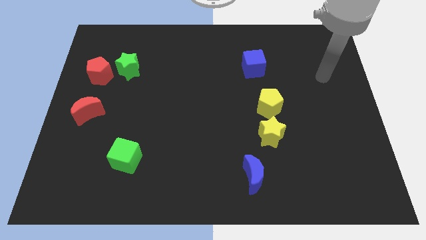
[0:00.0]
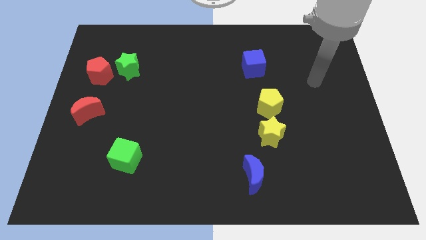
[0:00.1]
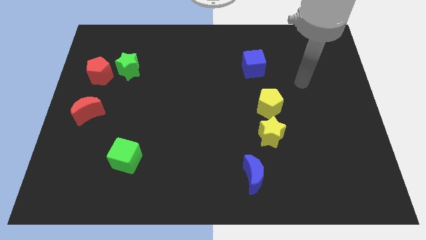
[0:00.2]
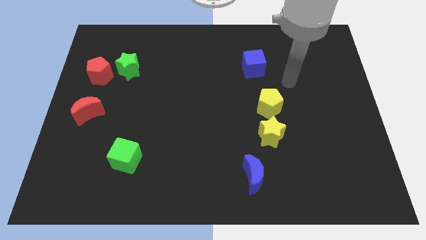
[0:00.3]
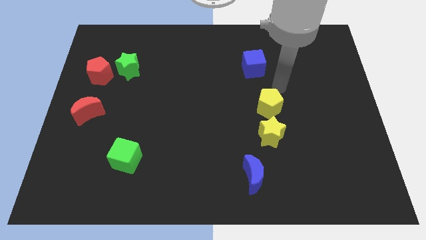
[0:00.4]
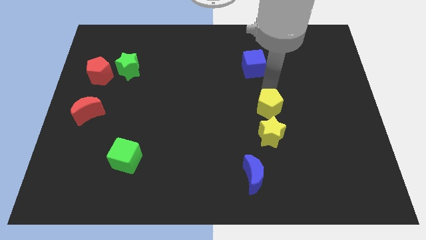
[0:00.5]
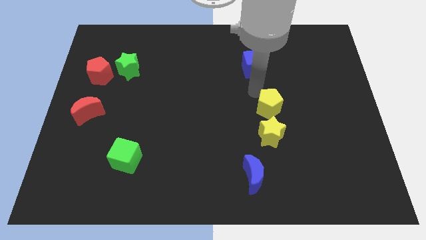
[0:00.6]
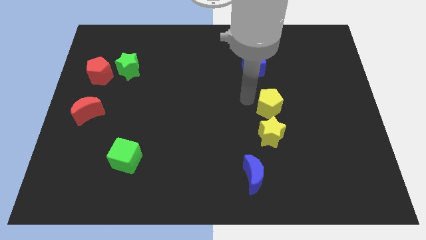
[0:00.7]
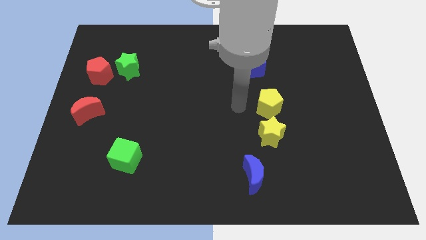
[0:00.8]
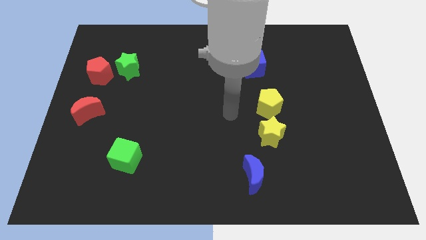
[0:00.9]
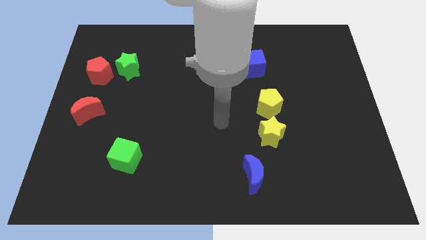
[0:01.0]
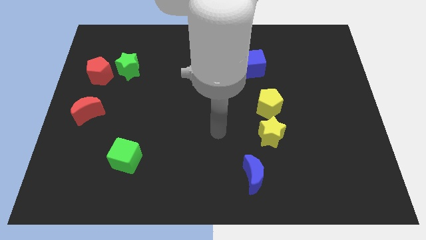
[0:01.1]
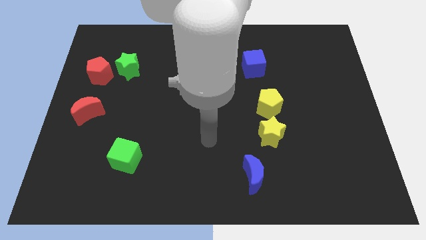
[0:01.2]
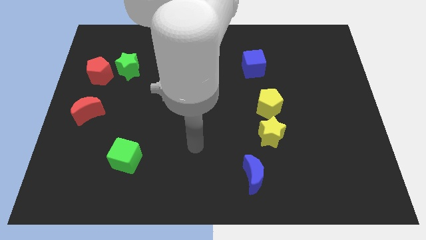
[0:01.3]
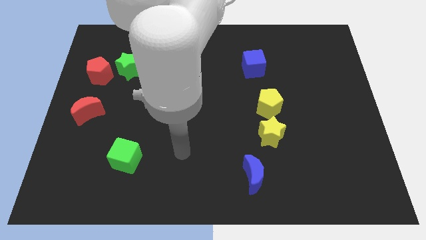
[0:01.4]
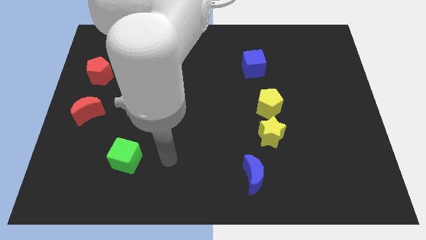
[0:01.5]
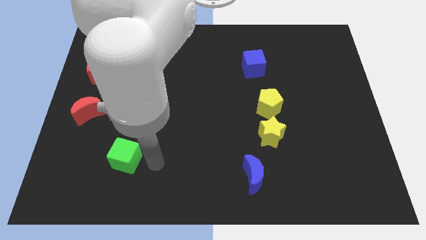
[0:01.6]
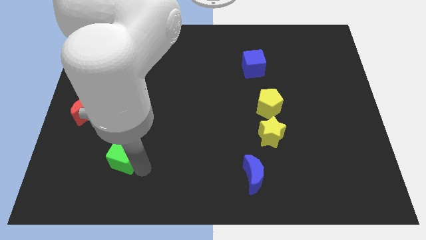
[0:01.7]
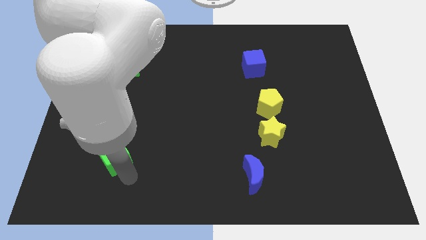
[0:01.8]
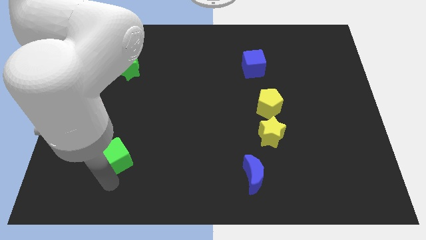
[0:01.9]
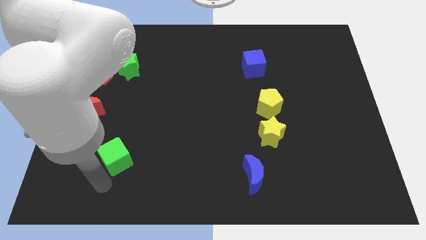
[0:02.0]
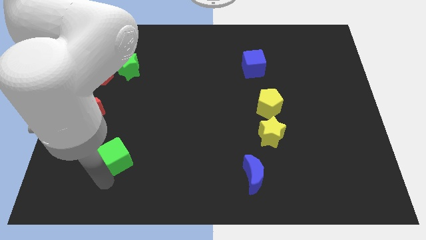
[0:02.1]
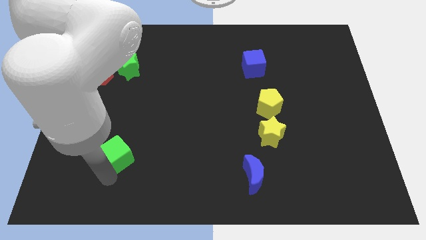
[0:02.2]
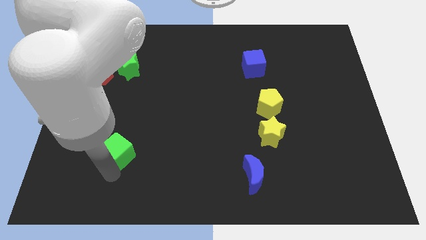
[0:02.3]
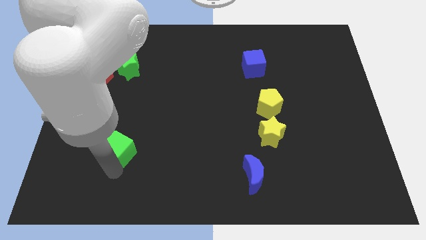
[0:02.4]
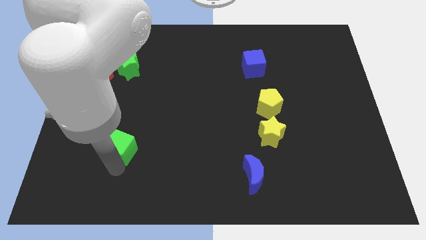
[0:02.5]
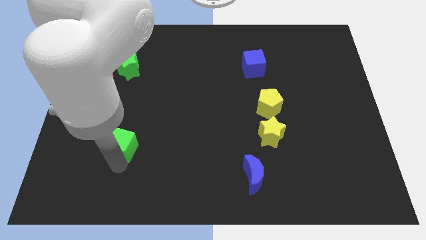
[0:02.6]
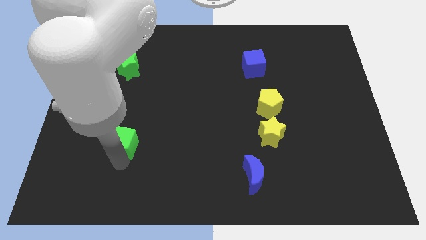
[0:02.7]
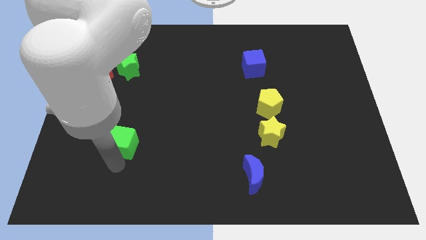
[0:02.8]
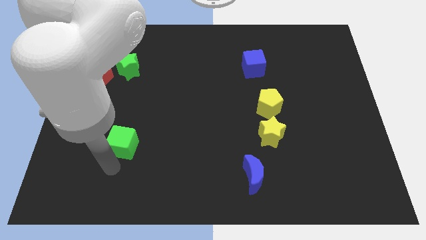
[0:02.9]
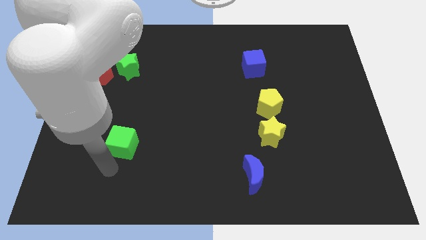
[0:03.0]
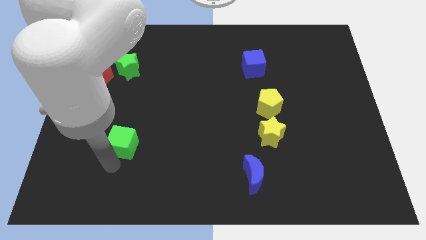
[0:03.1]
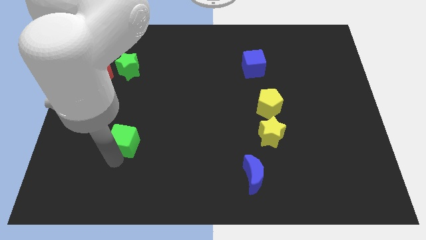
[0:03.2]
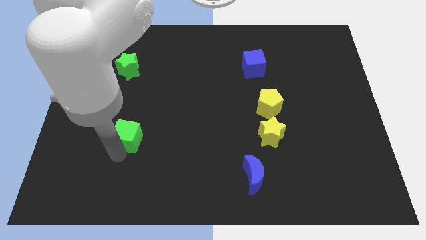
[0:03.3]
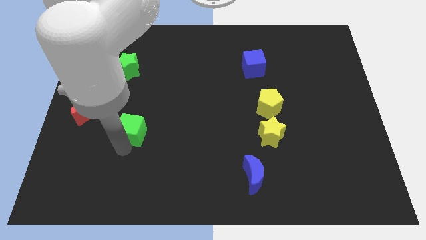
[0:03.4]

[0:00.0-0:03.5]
push the green cube upwards slightly

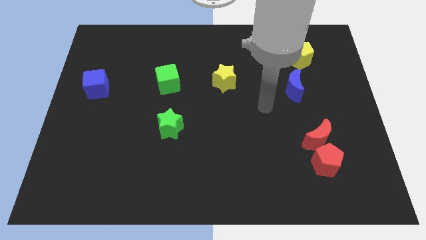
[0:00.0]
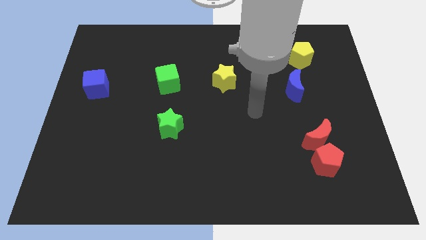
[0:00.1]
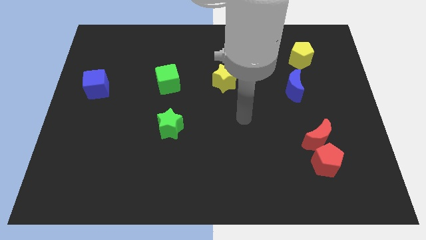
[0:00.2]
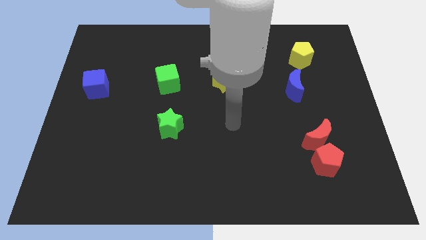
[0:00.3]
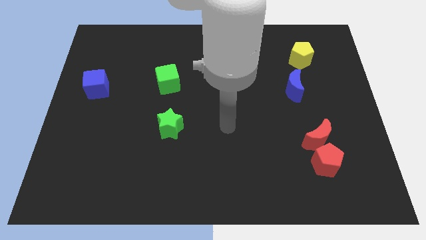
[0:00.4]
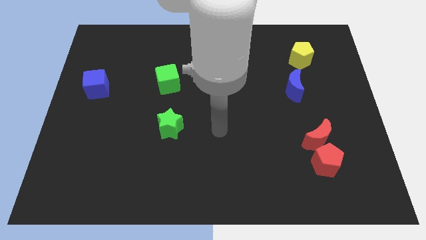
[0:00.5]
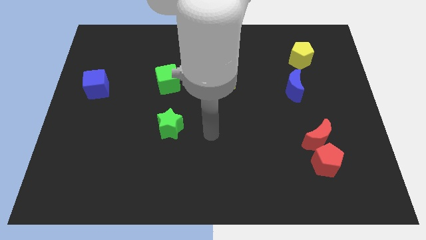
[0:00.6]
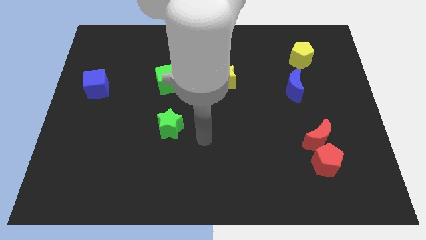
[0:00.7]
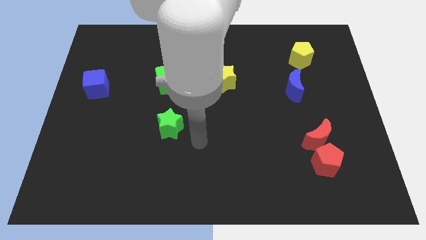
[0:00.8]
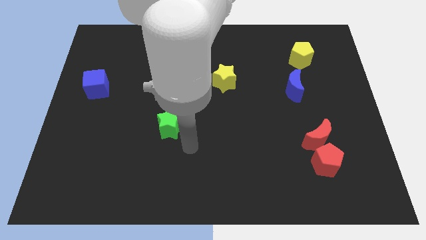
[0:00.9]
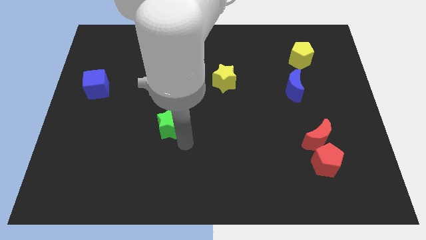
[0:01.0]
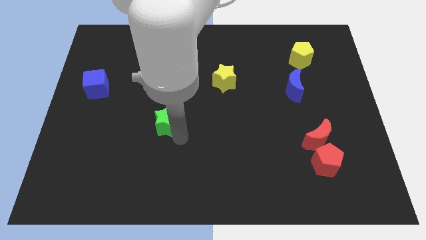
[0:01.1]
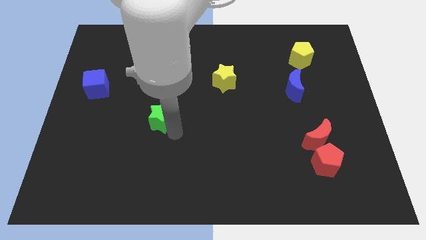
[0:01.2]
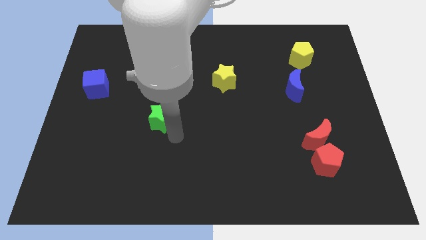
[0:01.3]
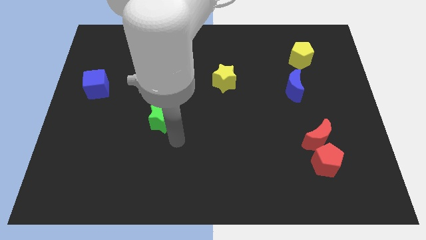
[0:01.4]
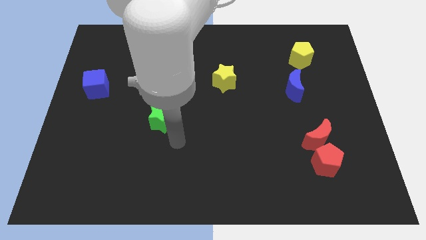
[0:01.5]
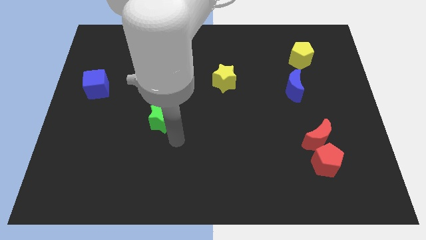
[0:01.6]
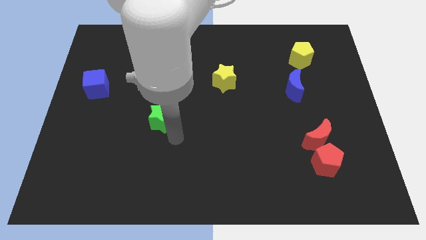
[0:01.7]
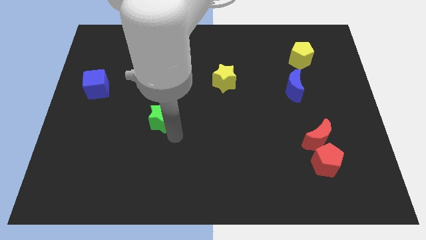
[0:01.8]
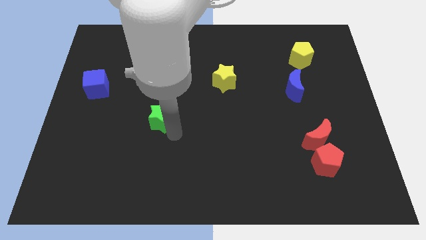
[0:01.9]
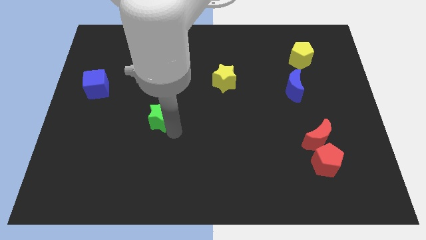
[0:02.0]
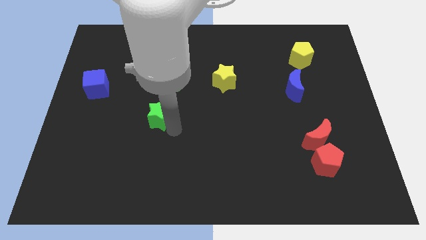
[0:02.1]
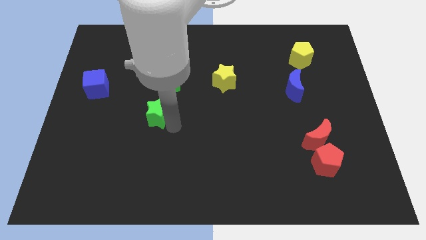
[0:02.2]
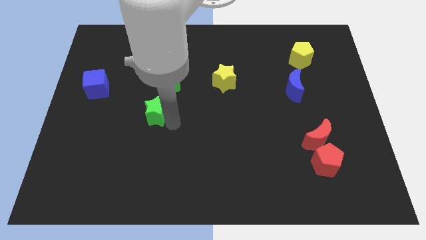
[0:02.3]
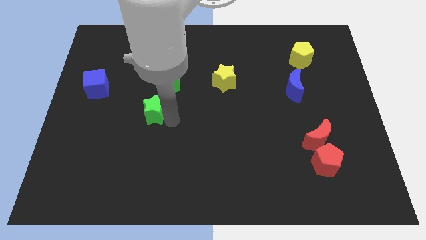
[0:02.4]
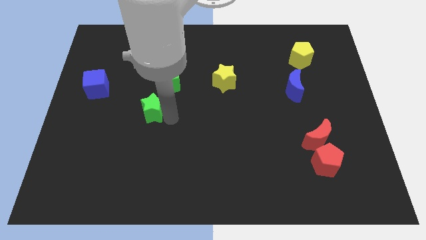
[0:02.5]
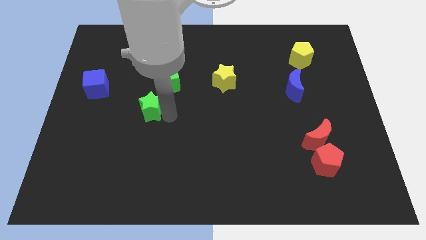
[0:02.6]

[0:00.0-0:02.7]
slightly slide the green star diagonally upwards and left

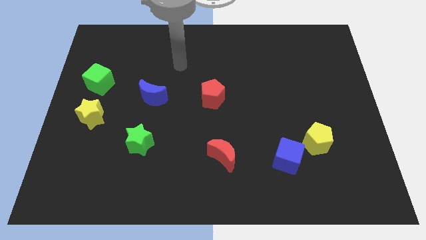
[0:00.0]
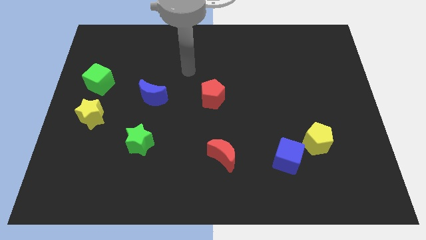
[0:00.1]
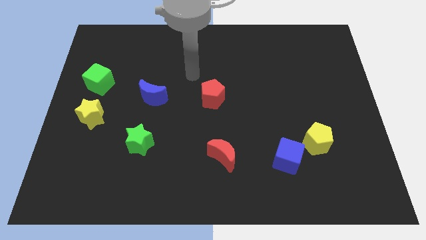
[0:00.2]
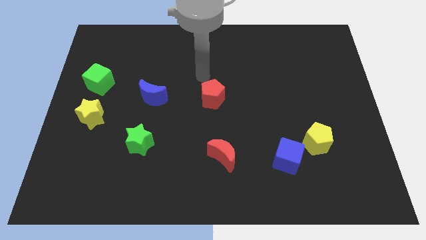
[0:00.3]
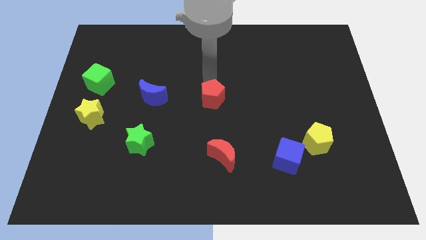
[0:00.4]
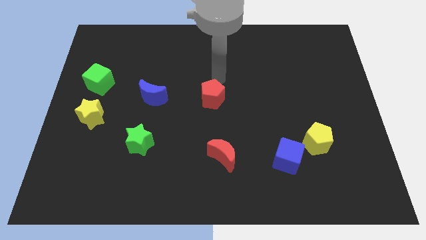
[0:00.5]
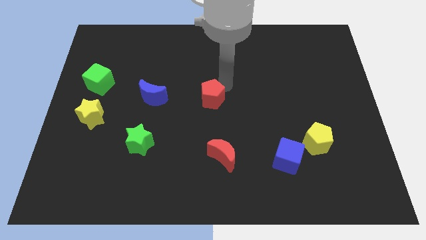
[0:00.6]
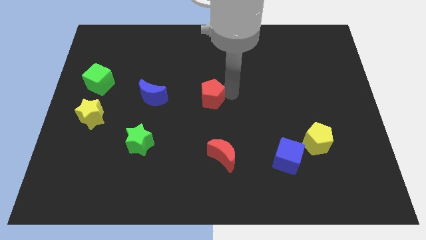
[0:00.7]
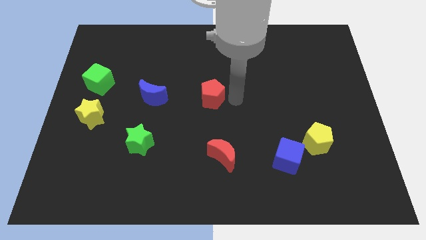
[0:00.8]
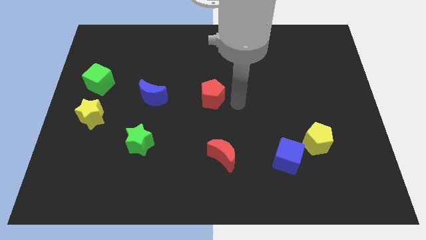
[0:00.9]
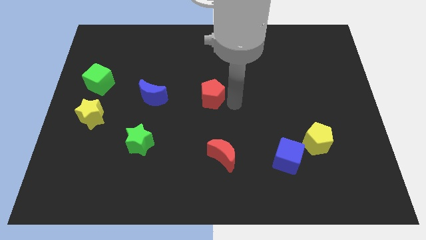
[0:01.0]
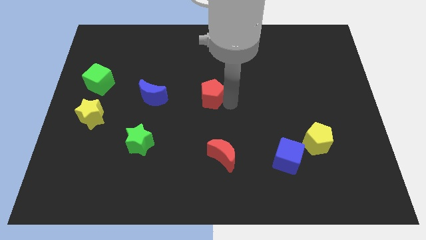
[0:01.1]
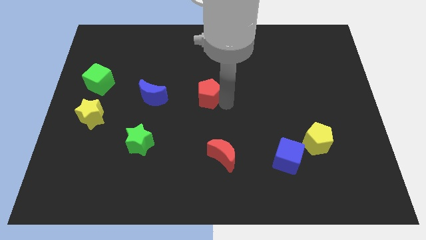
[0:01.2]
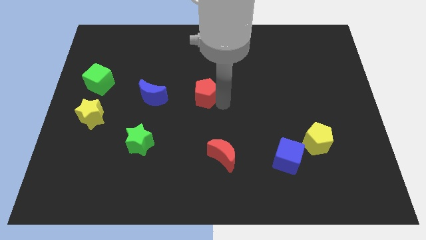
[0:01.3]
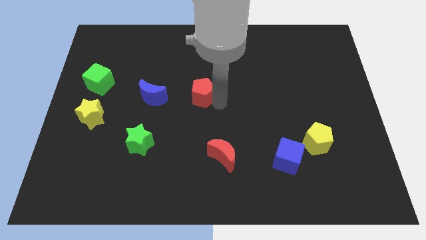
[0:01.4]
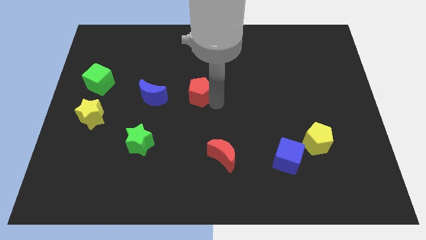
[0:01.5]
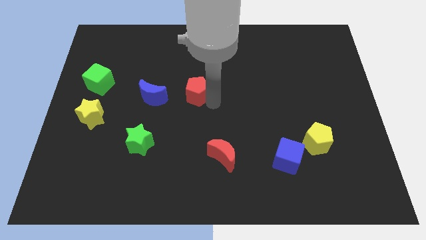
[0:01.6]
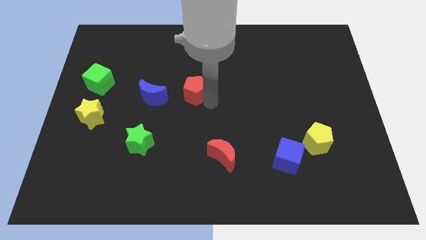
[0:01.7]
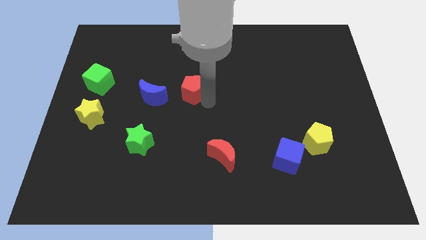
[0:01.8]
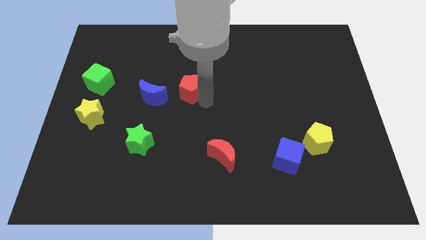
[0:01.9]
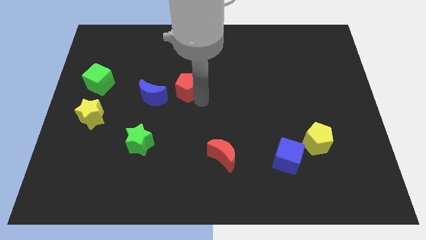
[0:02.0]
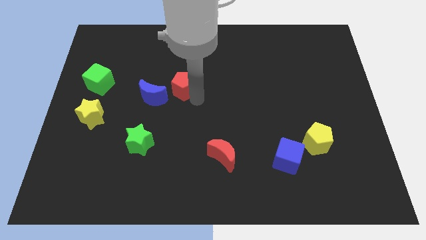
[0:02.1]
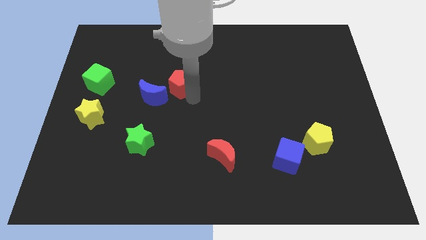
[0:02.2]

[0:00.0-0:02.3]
slightly push the red pentagon to the left
